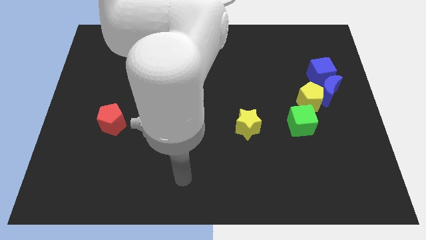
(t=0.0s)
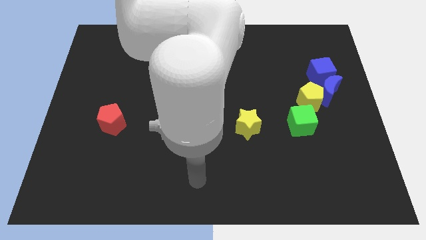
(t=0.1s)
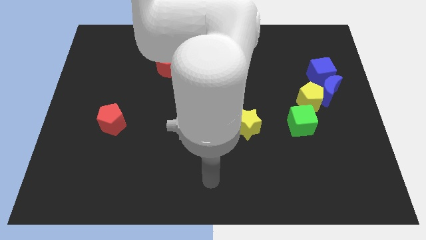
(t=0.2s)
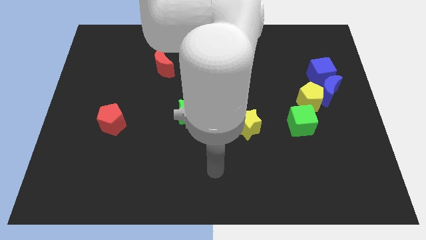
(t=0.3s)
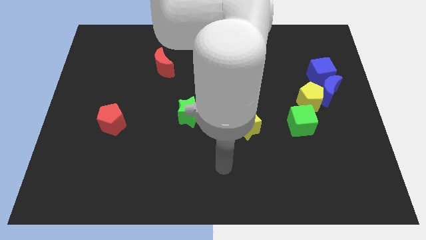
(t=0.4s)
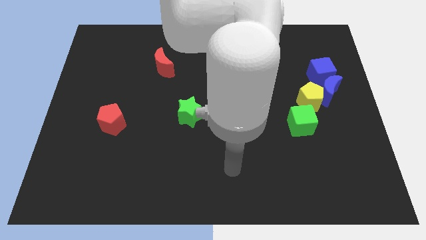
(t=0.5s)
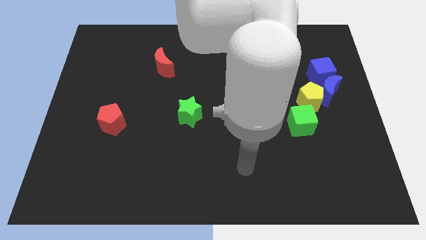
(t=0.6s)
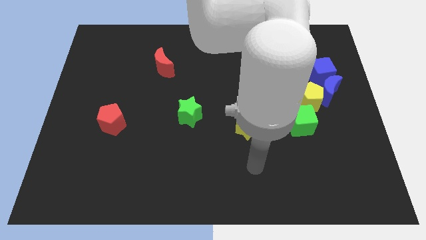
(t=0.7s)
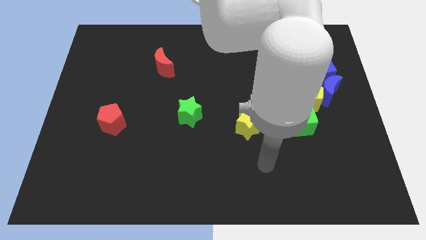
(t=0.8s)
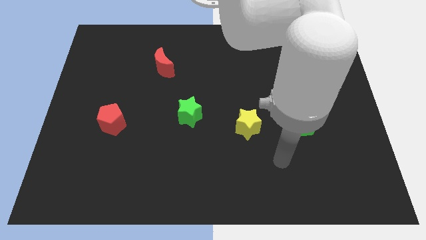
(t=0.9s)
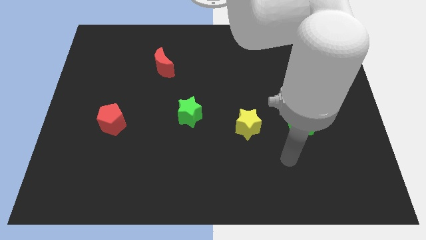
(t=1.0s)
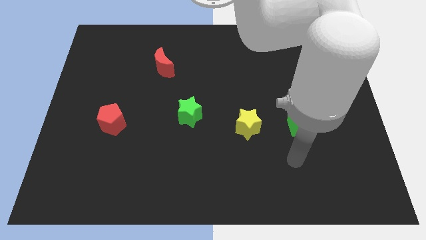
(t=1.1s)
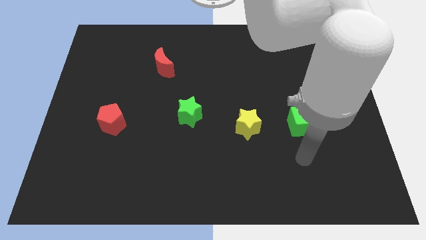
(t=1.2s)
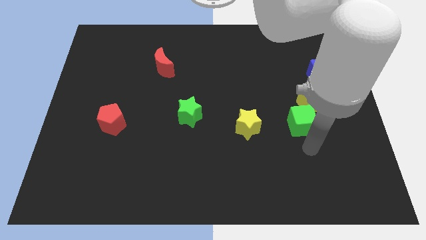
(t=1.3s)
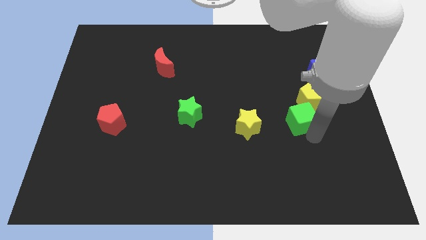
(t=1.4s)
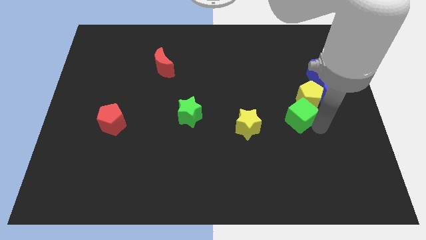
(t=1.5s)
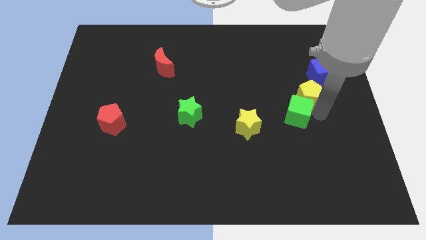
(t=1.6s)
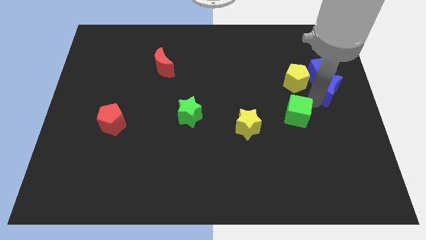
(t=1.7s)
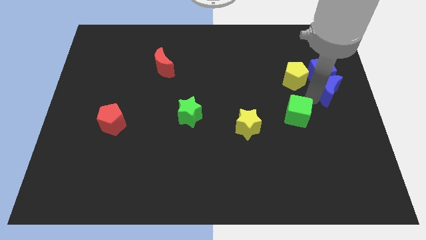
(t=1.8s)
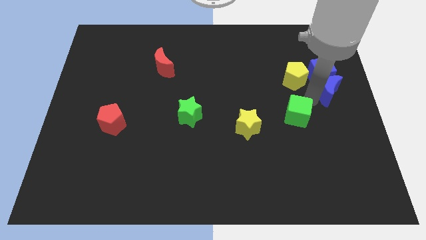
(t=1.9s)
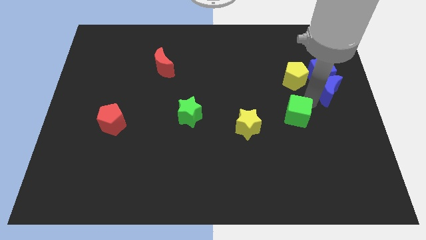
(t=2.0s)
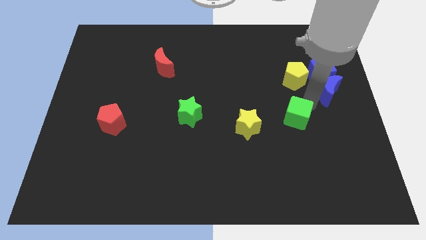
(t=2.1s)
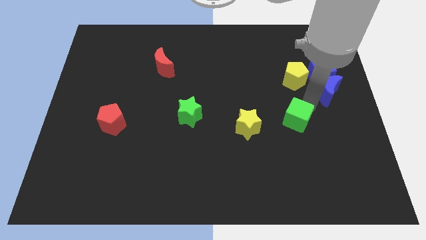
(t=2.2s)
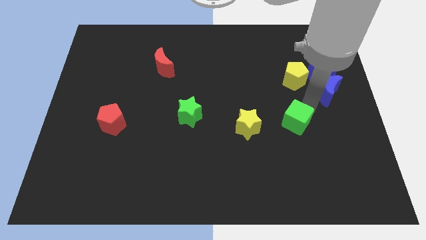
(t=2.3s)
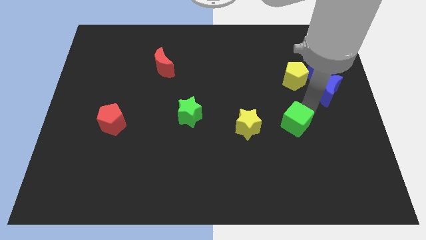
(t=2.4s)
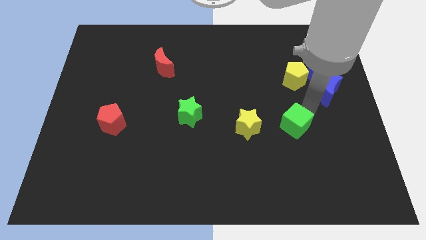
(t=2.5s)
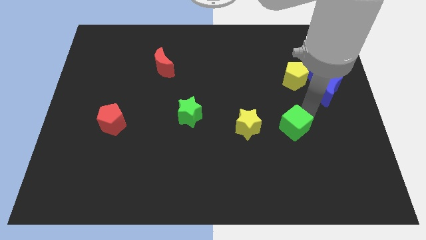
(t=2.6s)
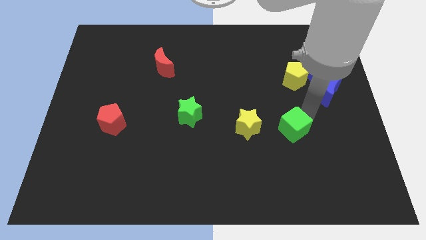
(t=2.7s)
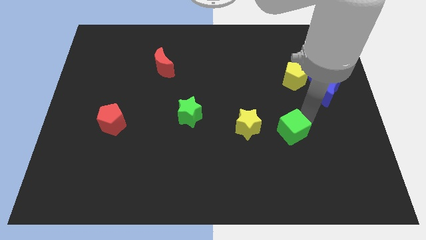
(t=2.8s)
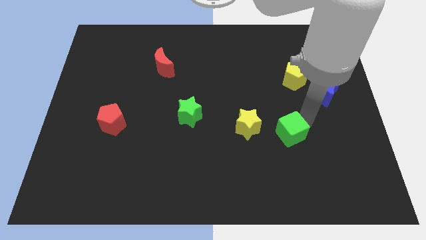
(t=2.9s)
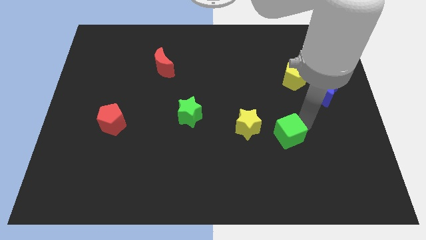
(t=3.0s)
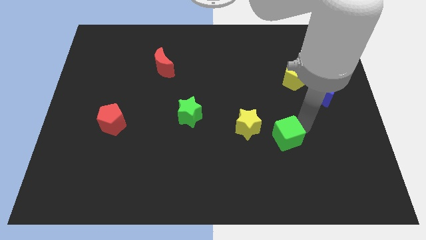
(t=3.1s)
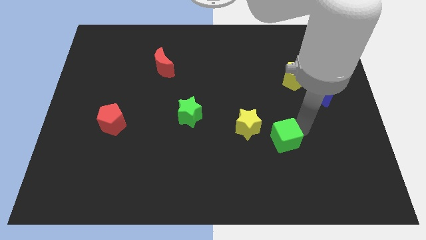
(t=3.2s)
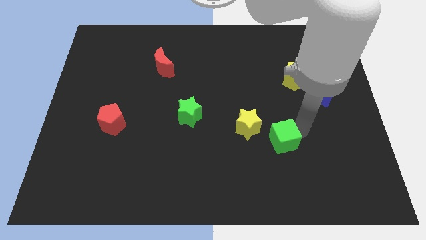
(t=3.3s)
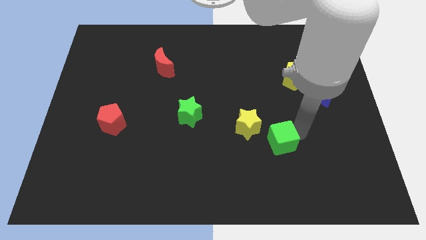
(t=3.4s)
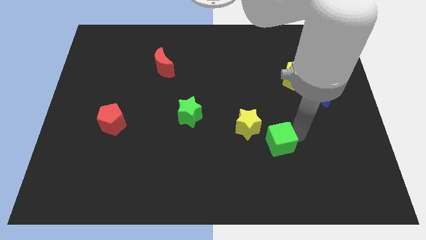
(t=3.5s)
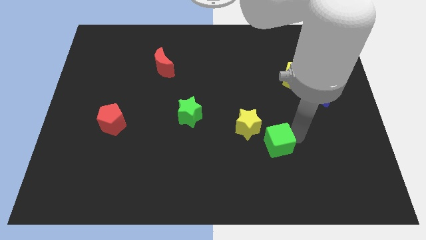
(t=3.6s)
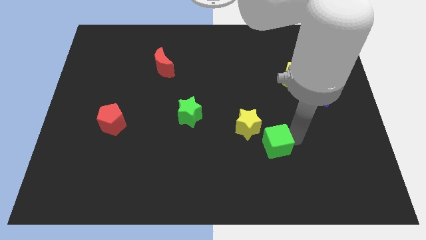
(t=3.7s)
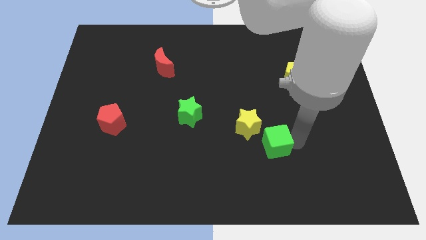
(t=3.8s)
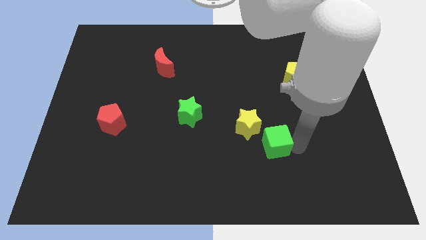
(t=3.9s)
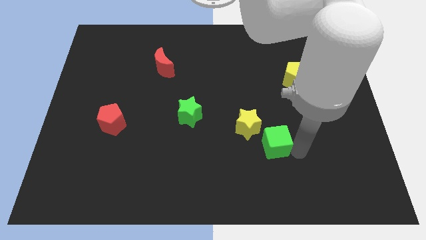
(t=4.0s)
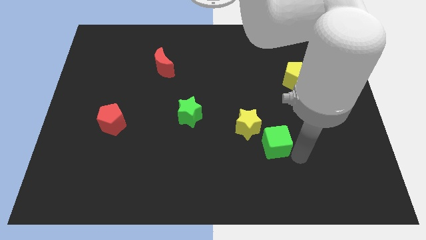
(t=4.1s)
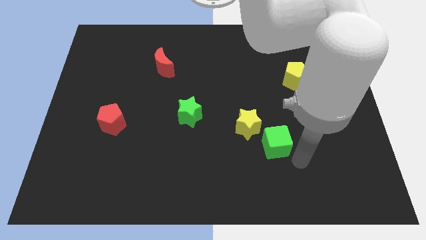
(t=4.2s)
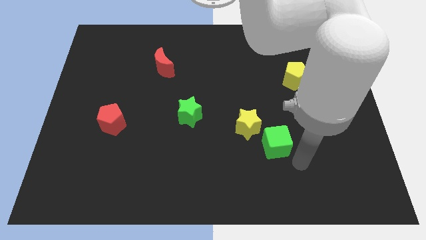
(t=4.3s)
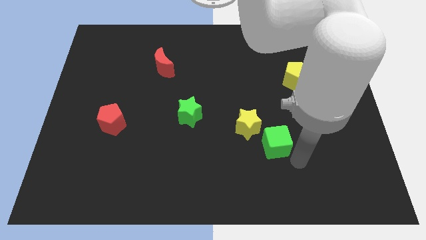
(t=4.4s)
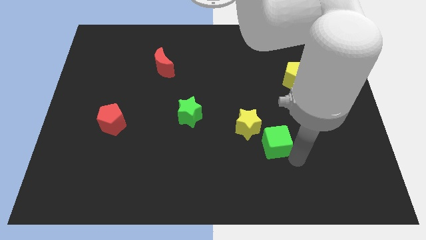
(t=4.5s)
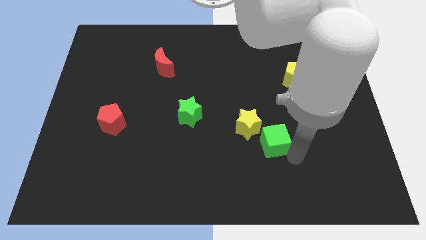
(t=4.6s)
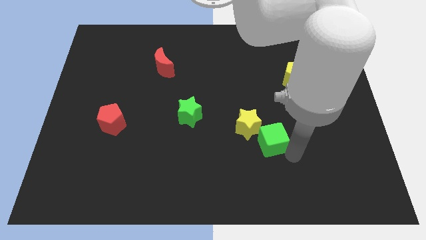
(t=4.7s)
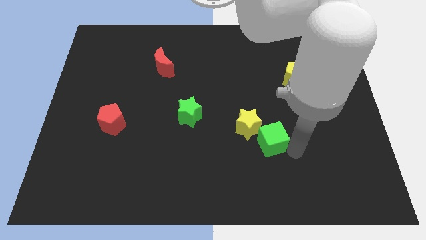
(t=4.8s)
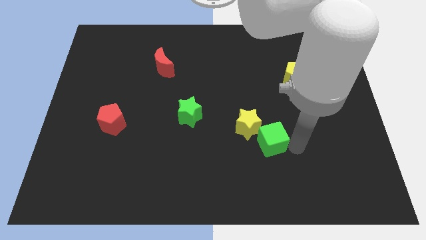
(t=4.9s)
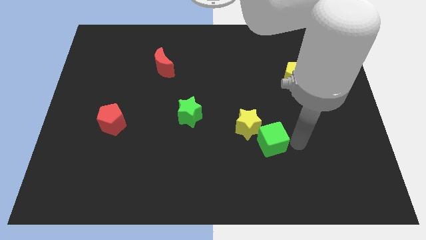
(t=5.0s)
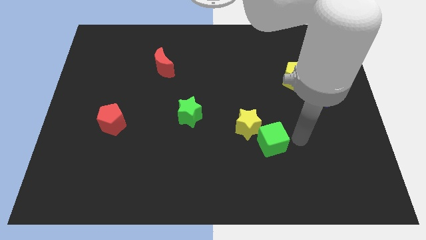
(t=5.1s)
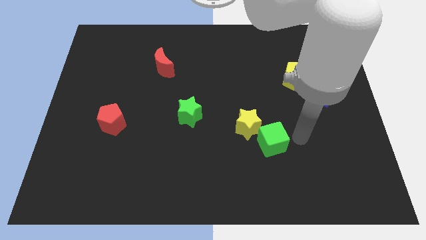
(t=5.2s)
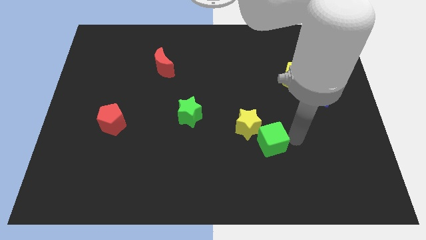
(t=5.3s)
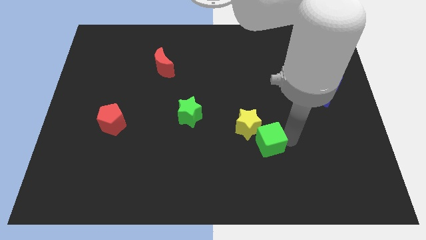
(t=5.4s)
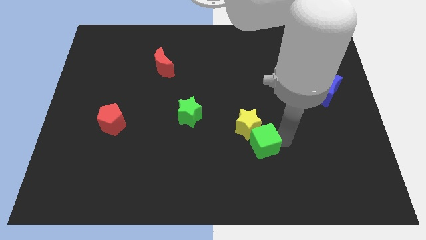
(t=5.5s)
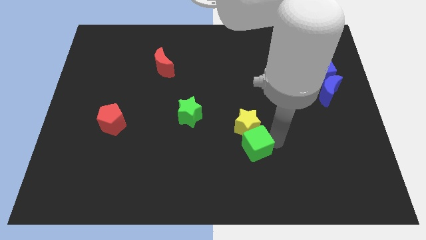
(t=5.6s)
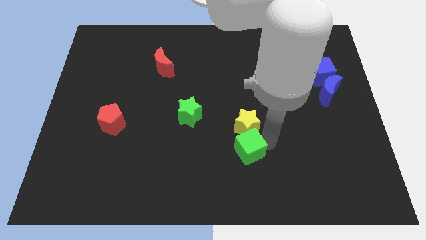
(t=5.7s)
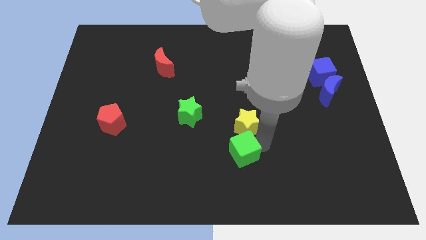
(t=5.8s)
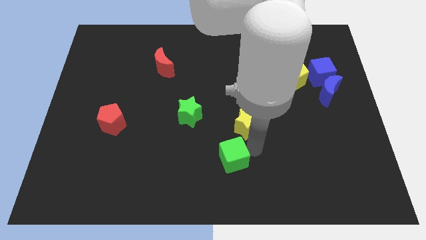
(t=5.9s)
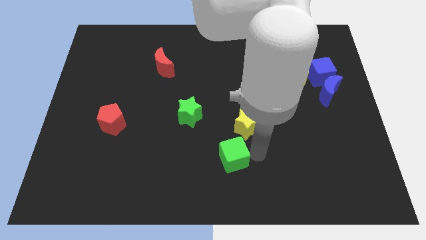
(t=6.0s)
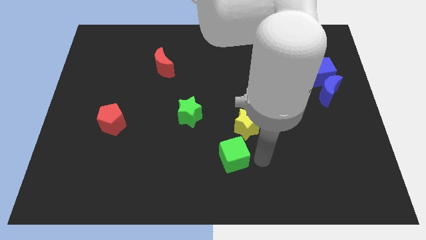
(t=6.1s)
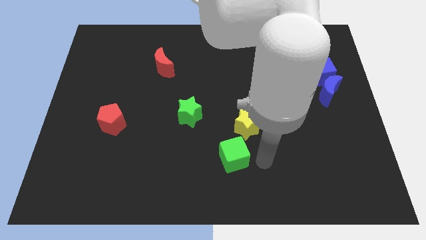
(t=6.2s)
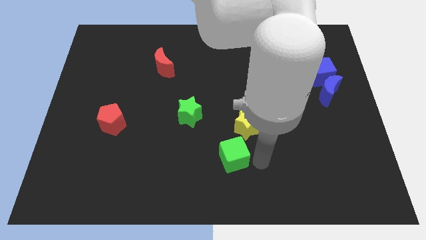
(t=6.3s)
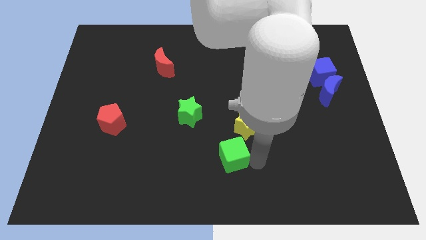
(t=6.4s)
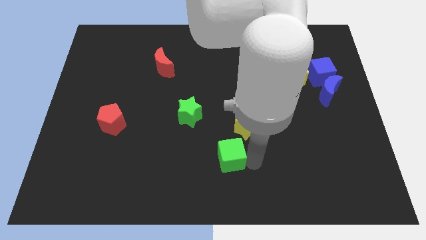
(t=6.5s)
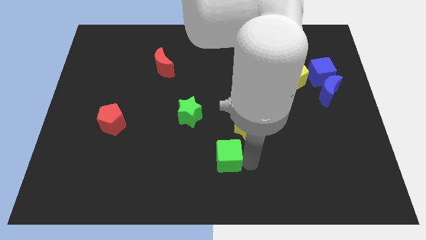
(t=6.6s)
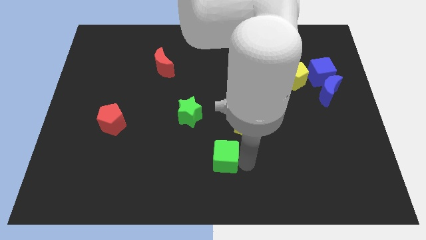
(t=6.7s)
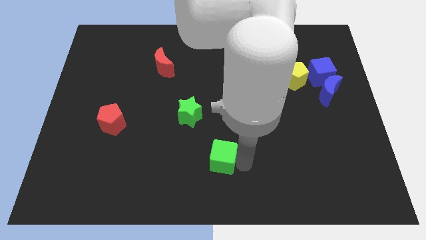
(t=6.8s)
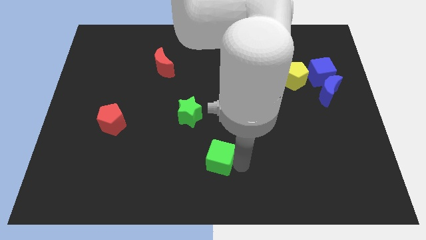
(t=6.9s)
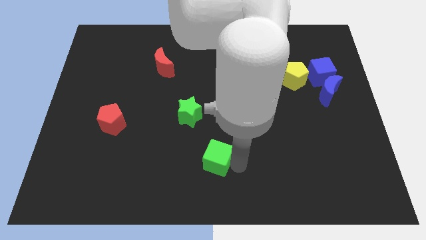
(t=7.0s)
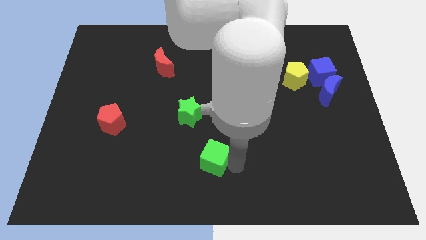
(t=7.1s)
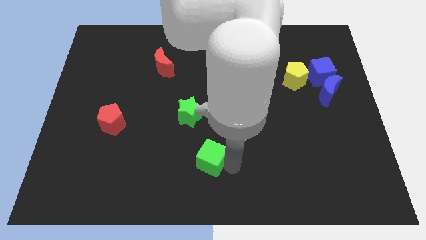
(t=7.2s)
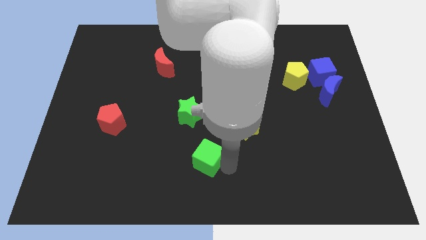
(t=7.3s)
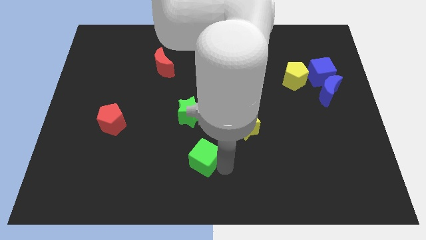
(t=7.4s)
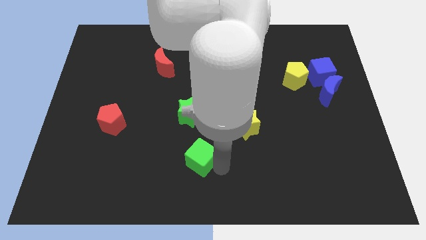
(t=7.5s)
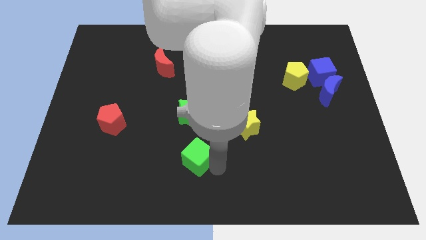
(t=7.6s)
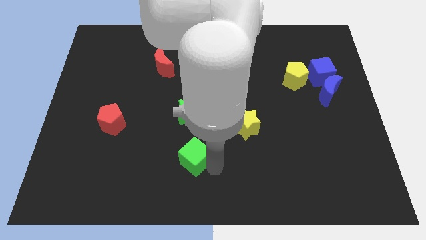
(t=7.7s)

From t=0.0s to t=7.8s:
push the green cube to the left

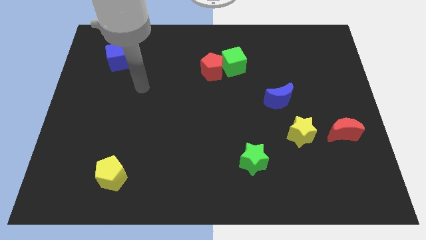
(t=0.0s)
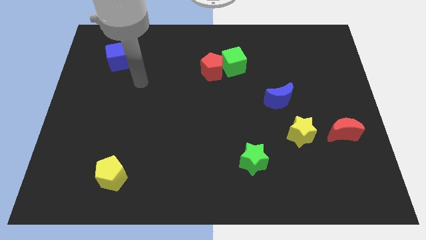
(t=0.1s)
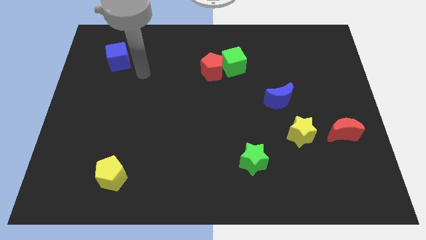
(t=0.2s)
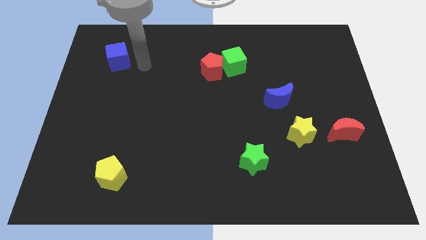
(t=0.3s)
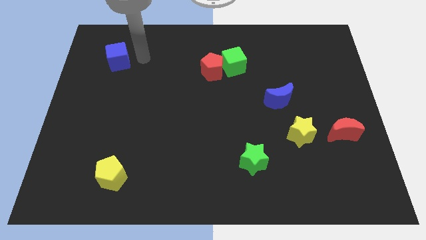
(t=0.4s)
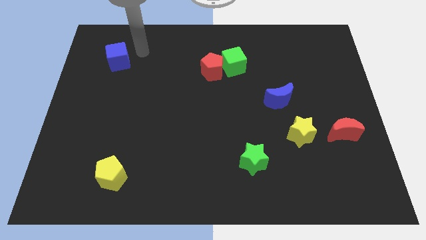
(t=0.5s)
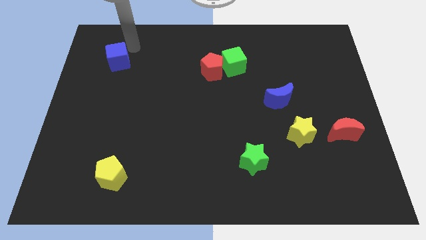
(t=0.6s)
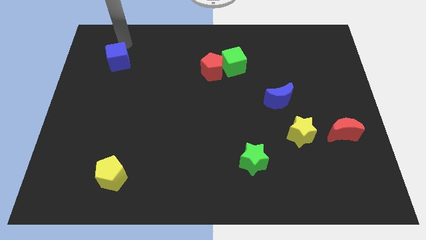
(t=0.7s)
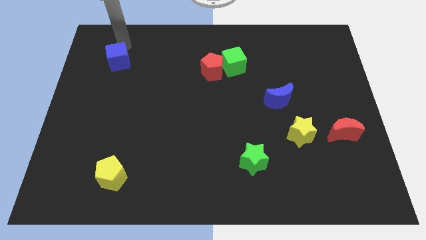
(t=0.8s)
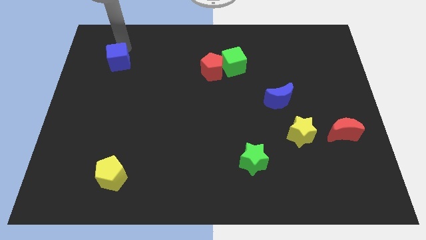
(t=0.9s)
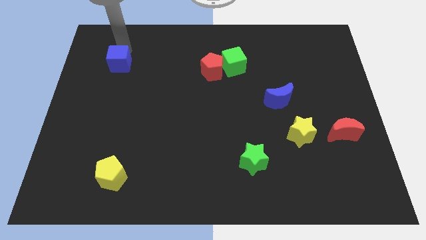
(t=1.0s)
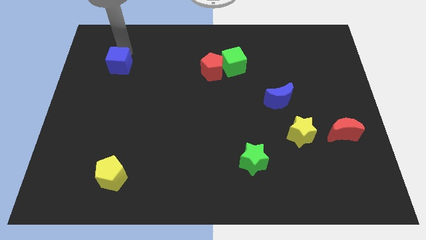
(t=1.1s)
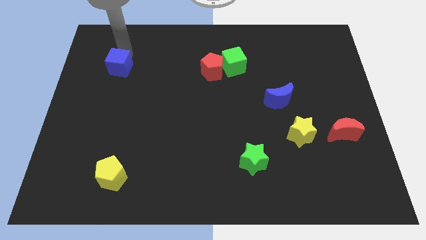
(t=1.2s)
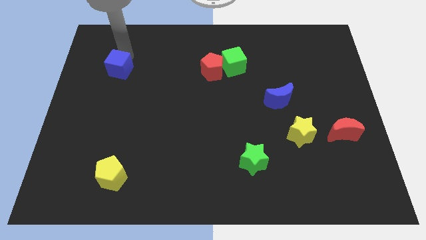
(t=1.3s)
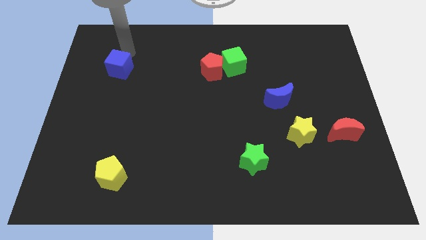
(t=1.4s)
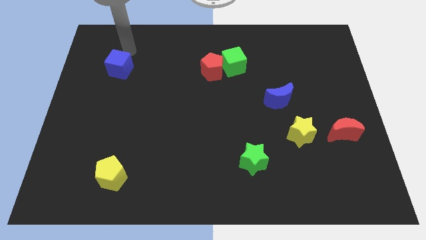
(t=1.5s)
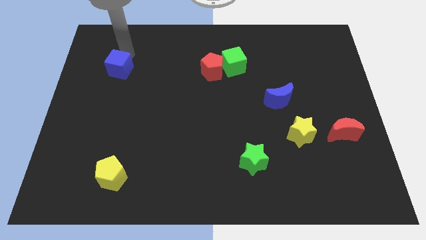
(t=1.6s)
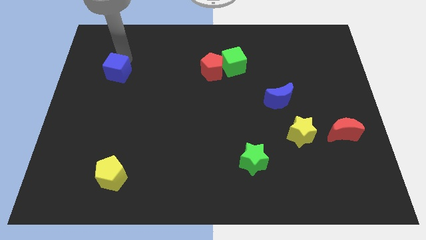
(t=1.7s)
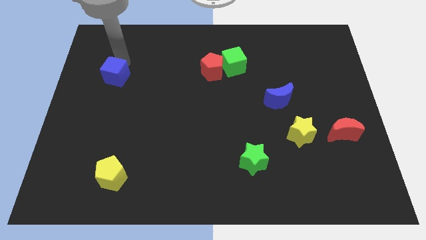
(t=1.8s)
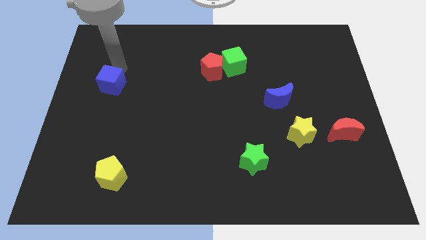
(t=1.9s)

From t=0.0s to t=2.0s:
push the blue cube somewhat downwards
